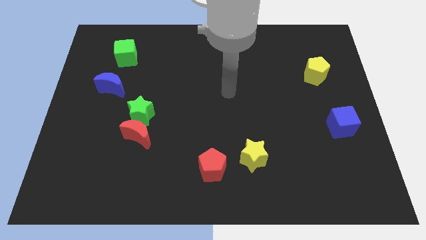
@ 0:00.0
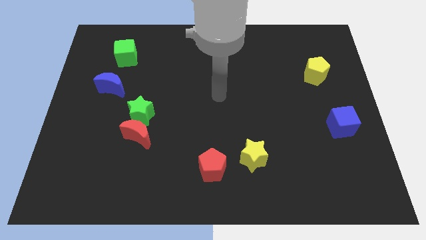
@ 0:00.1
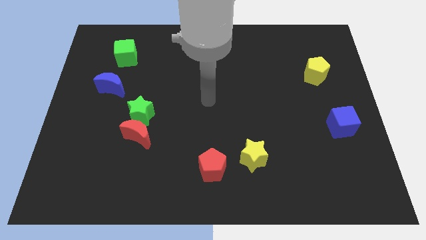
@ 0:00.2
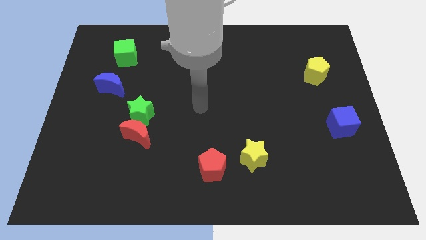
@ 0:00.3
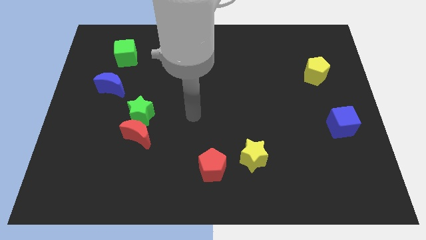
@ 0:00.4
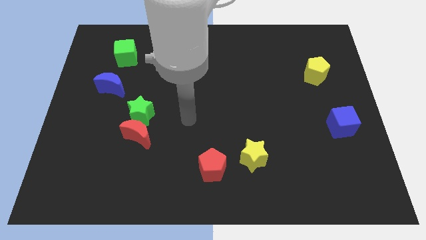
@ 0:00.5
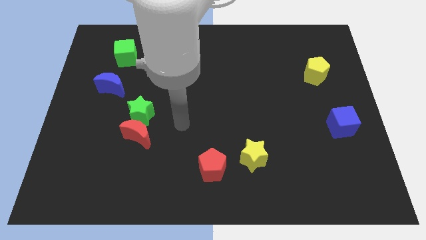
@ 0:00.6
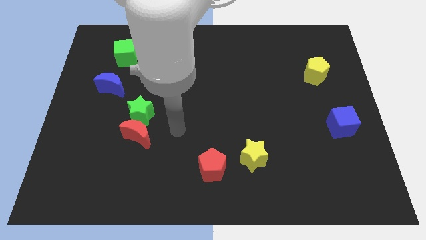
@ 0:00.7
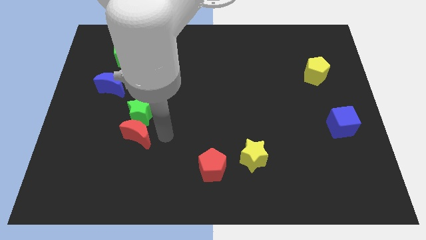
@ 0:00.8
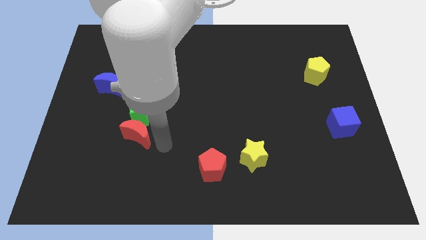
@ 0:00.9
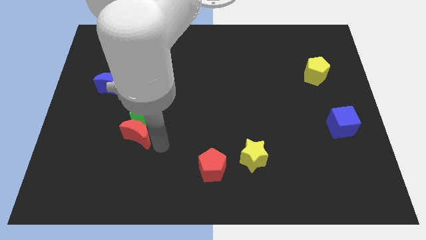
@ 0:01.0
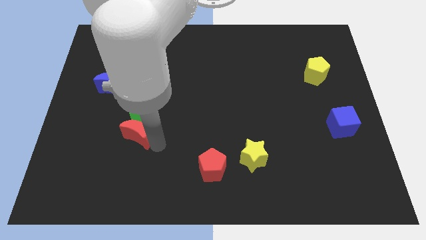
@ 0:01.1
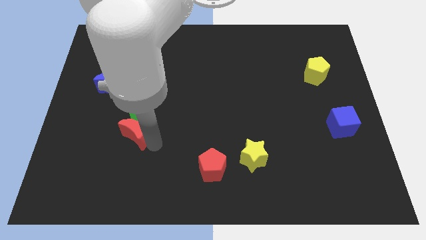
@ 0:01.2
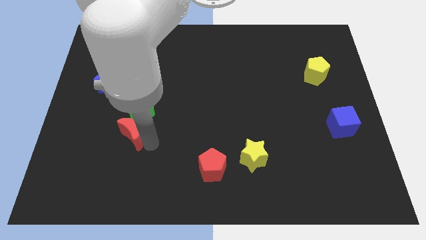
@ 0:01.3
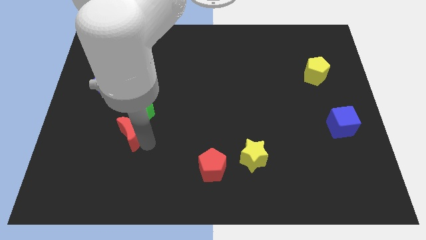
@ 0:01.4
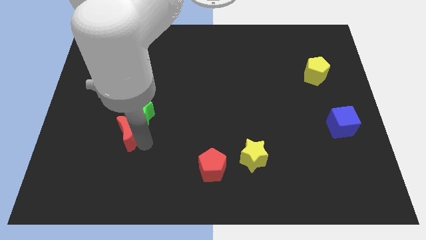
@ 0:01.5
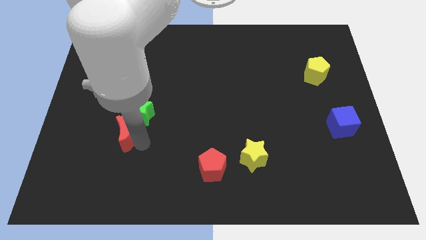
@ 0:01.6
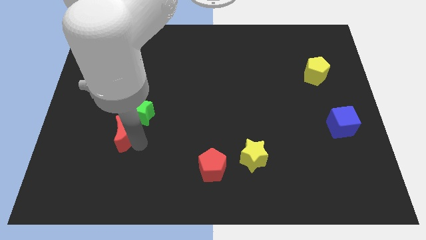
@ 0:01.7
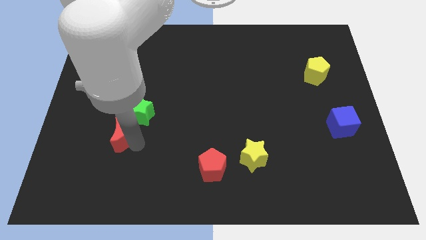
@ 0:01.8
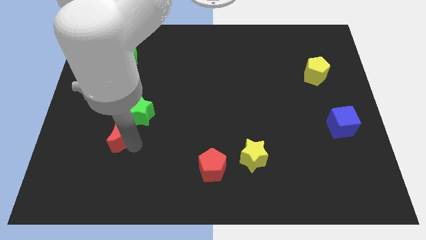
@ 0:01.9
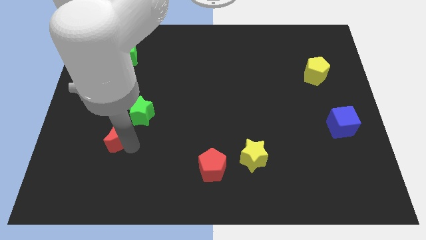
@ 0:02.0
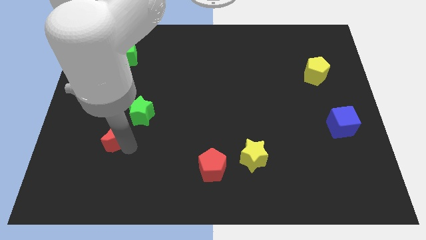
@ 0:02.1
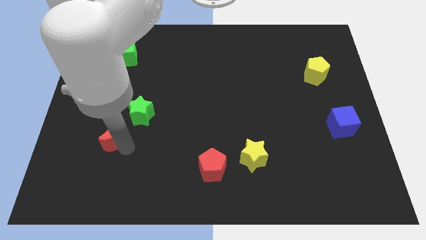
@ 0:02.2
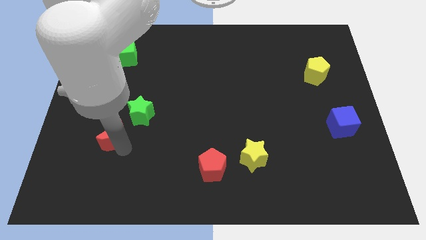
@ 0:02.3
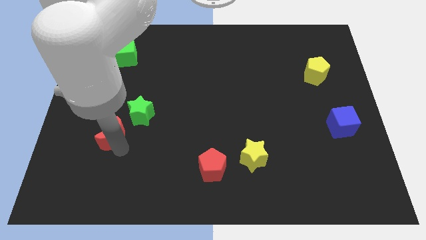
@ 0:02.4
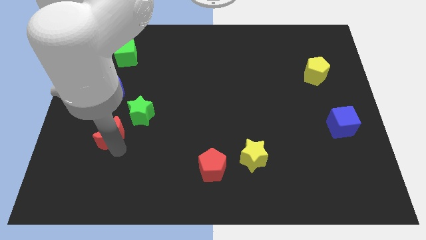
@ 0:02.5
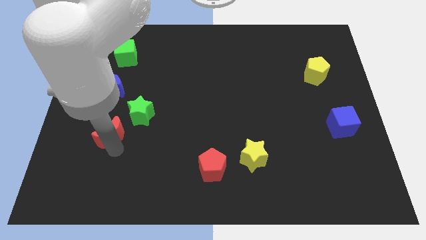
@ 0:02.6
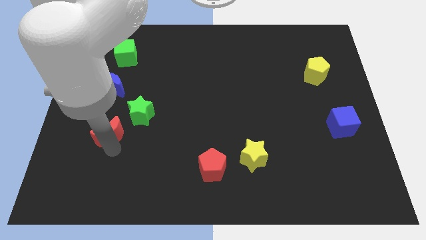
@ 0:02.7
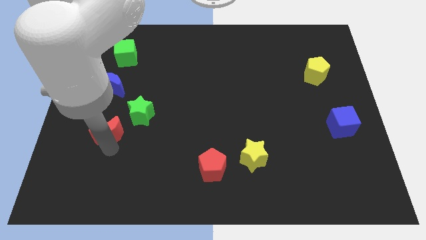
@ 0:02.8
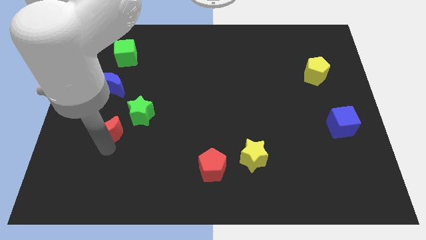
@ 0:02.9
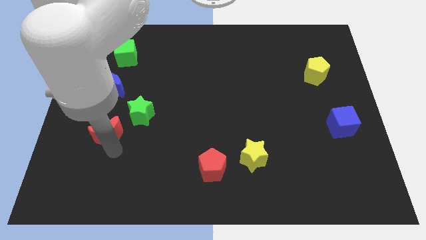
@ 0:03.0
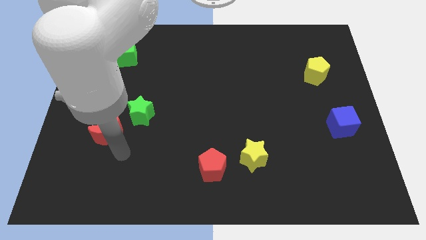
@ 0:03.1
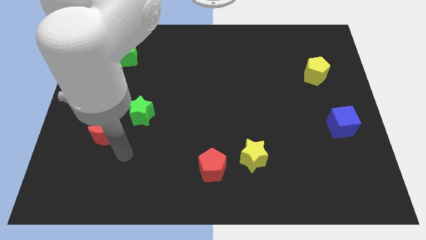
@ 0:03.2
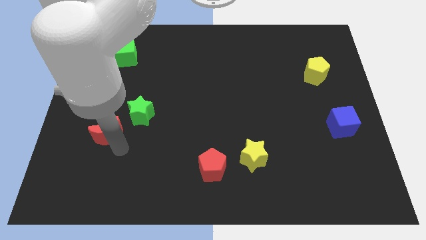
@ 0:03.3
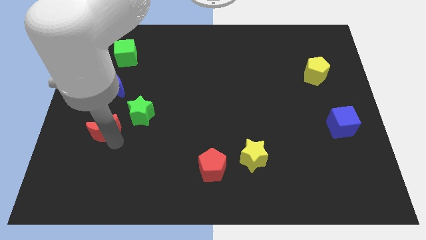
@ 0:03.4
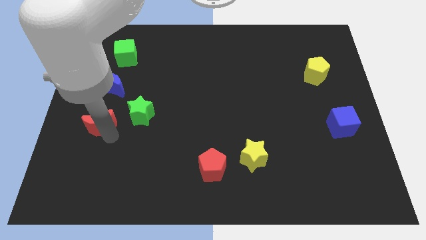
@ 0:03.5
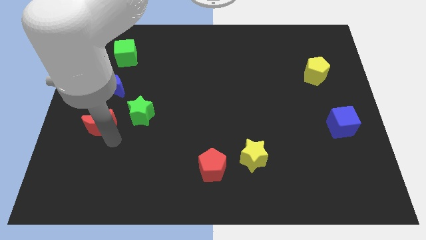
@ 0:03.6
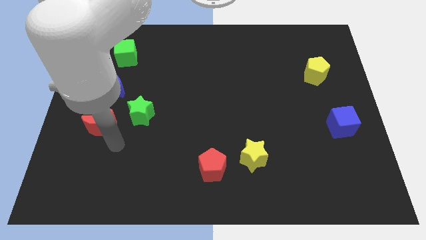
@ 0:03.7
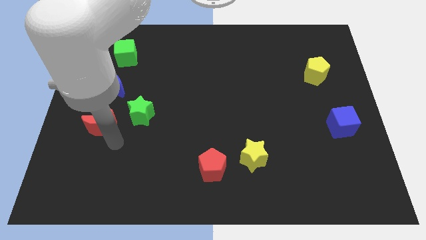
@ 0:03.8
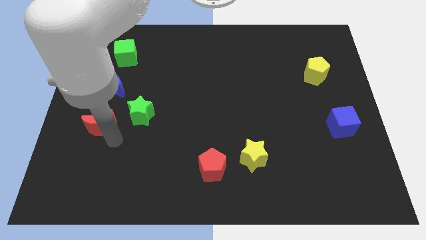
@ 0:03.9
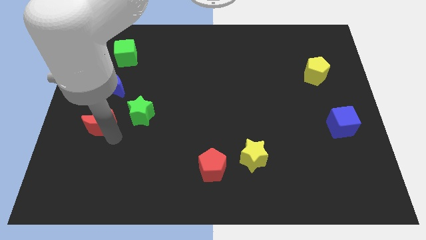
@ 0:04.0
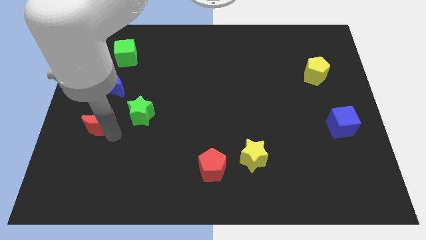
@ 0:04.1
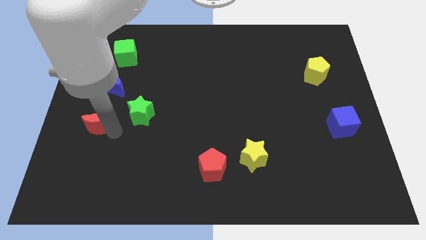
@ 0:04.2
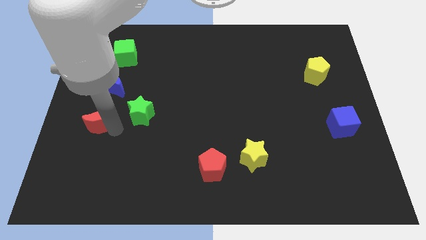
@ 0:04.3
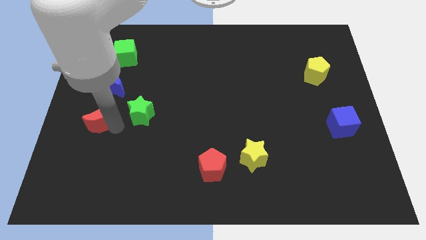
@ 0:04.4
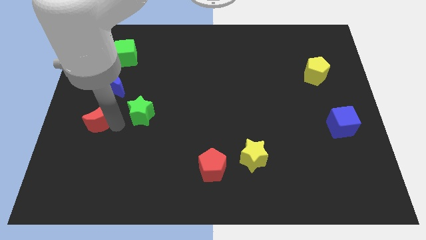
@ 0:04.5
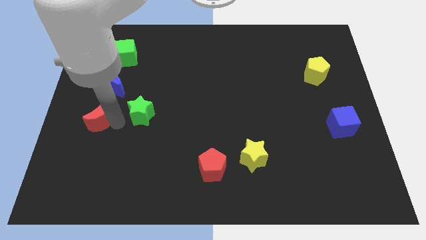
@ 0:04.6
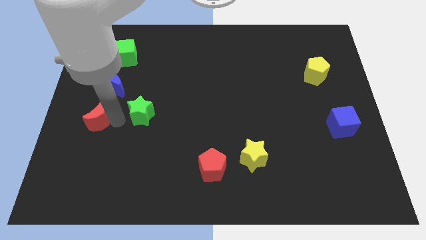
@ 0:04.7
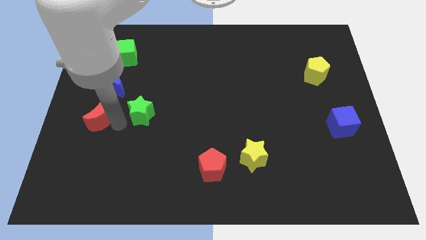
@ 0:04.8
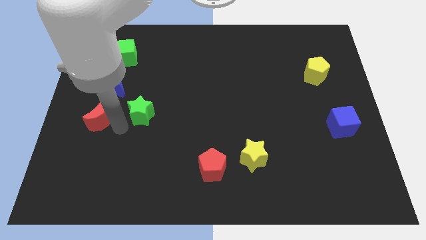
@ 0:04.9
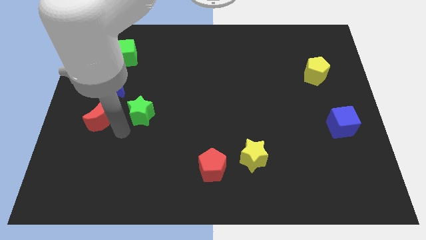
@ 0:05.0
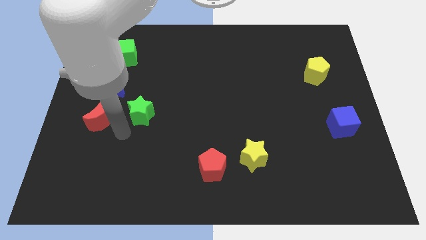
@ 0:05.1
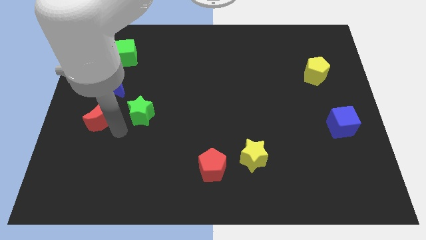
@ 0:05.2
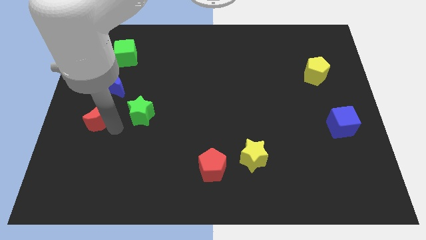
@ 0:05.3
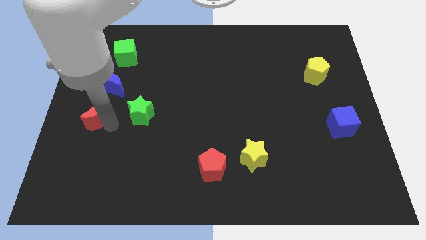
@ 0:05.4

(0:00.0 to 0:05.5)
put the red moon to the left side

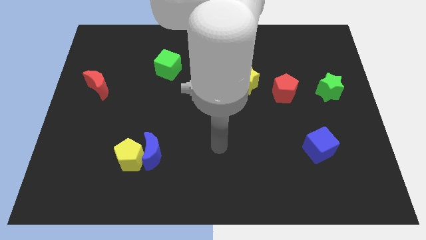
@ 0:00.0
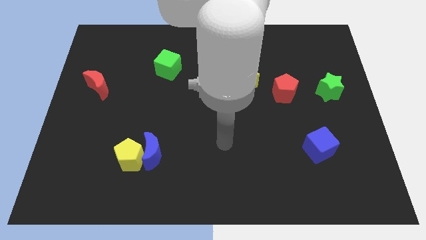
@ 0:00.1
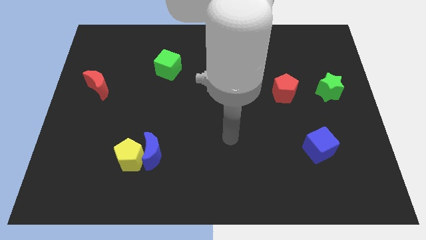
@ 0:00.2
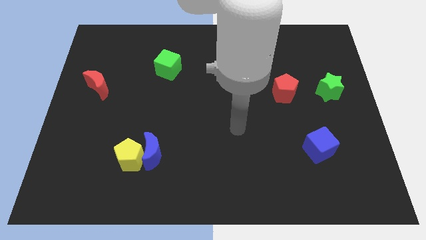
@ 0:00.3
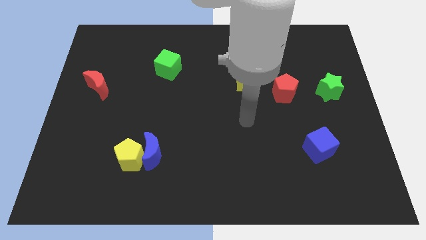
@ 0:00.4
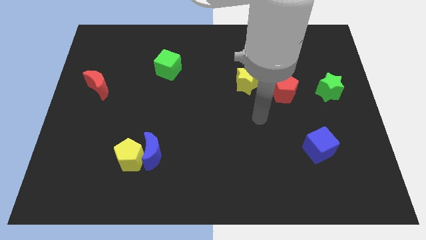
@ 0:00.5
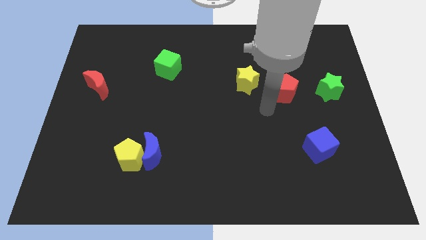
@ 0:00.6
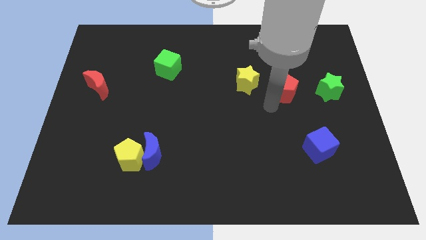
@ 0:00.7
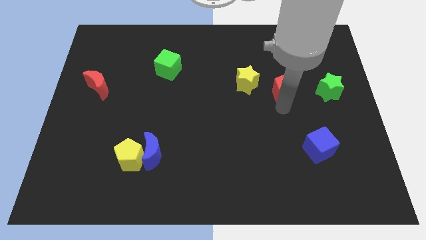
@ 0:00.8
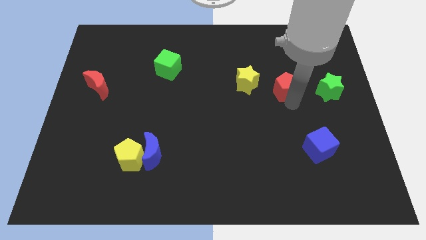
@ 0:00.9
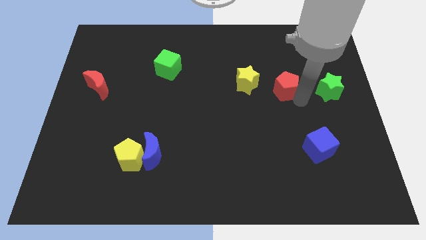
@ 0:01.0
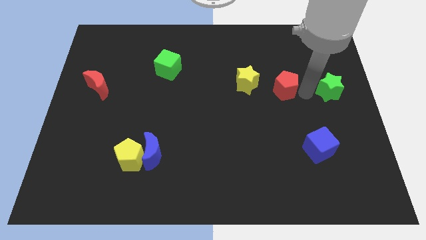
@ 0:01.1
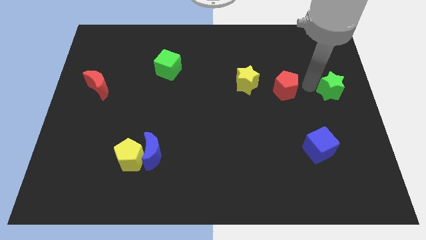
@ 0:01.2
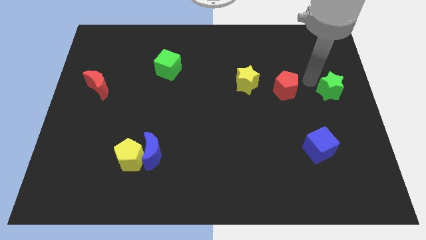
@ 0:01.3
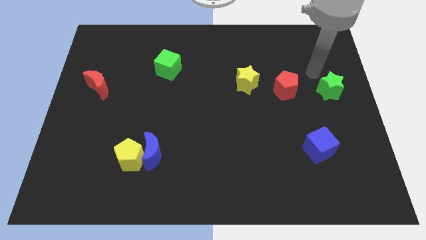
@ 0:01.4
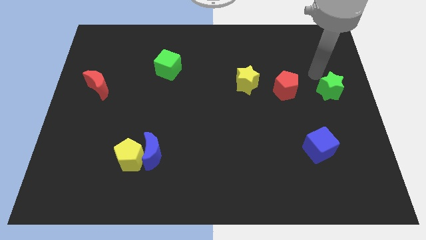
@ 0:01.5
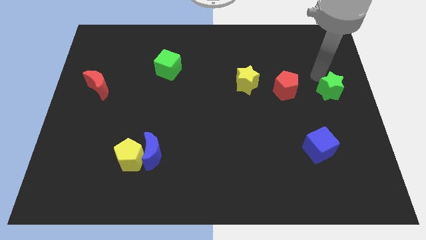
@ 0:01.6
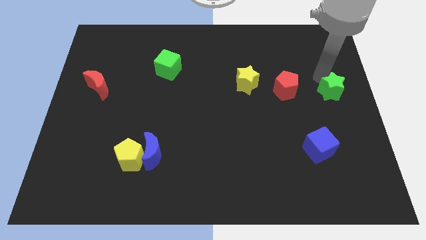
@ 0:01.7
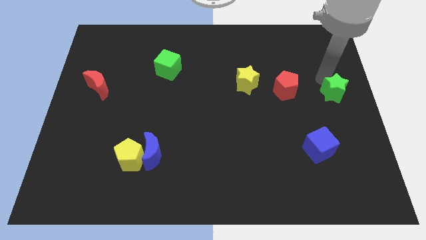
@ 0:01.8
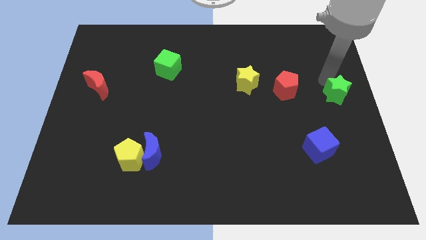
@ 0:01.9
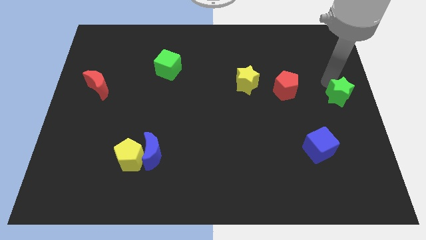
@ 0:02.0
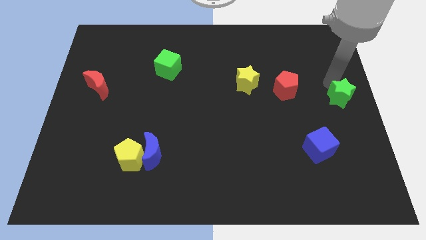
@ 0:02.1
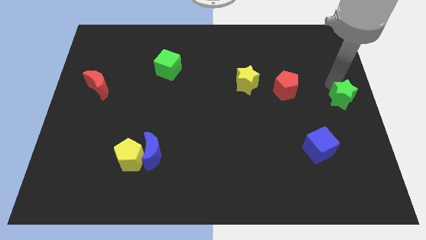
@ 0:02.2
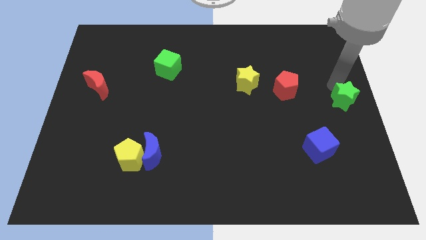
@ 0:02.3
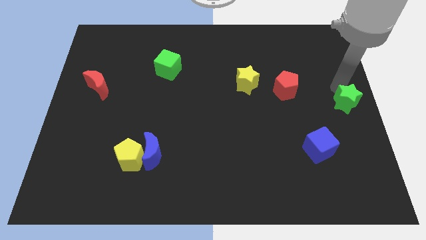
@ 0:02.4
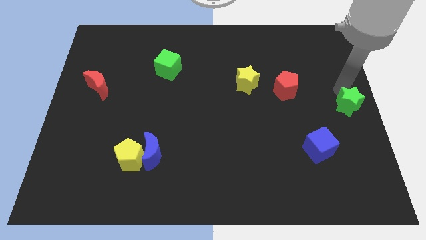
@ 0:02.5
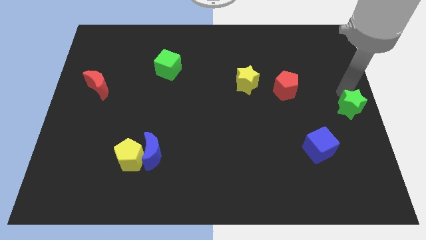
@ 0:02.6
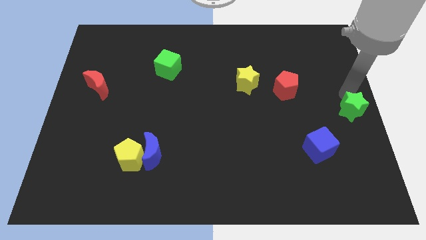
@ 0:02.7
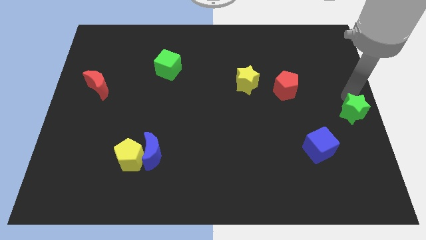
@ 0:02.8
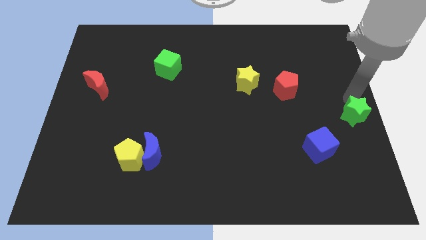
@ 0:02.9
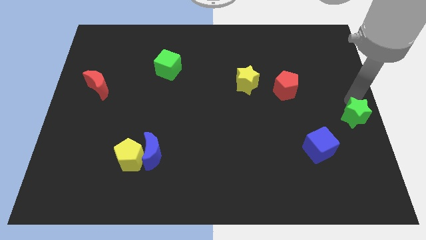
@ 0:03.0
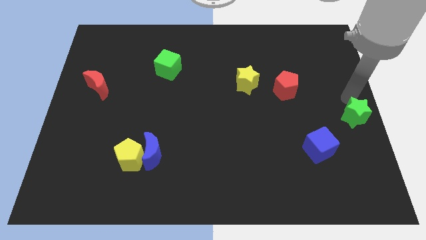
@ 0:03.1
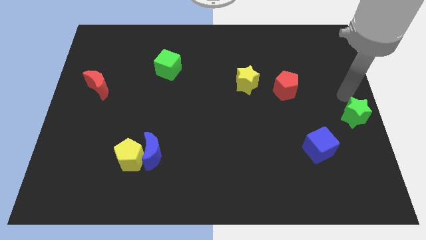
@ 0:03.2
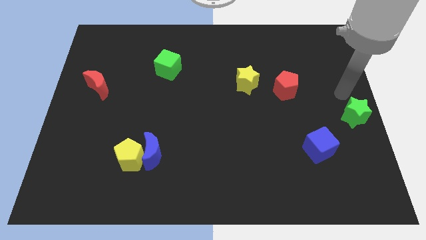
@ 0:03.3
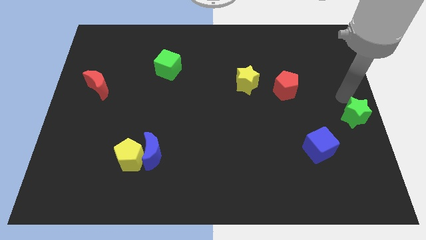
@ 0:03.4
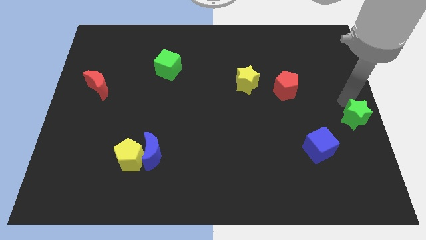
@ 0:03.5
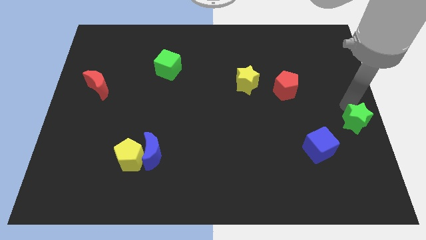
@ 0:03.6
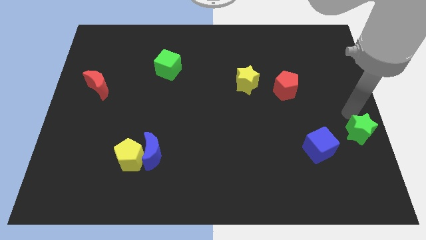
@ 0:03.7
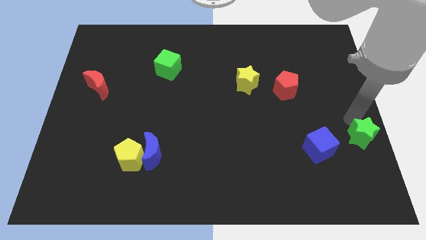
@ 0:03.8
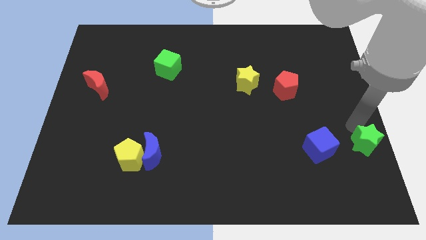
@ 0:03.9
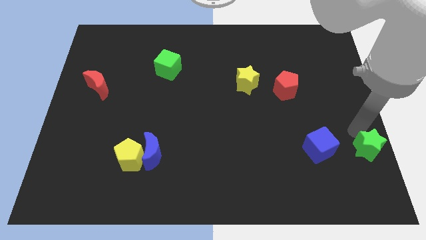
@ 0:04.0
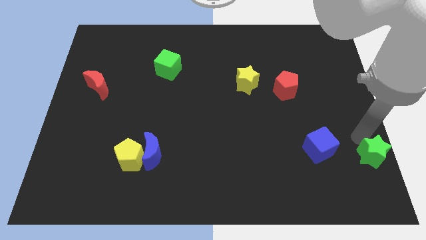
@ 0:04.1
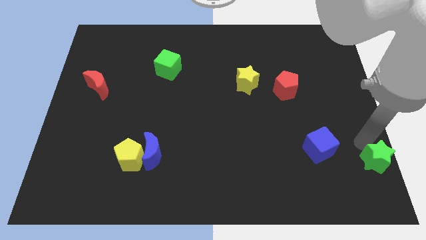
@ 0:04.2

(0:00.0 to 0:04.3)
slide the green star to the bottom right of the board
